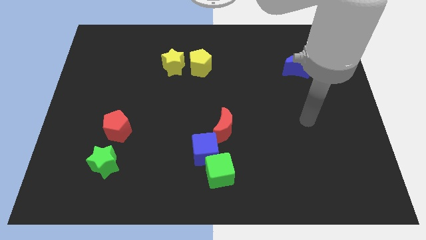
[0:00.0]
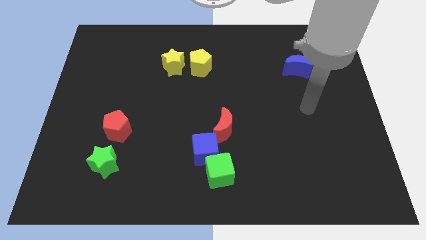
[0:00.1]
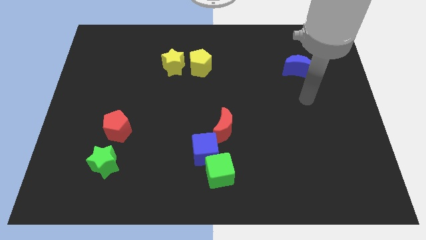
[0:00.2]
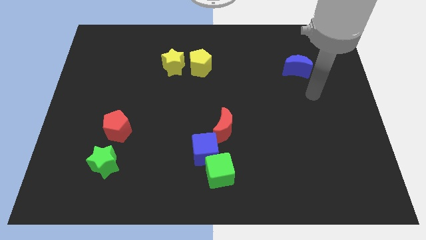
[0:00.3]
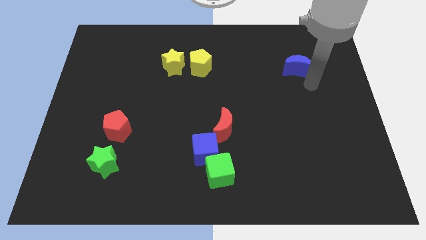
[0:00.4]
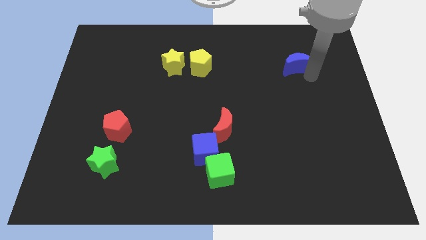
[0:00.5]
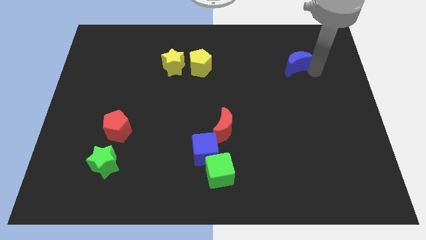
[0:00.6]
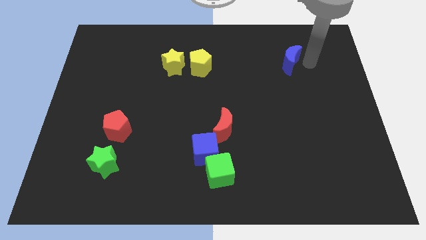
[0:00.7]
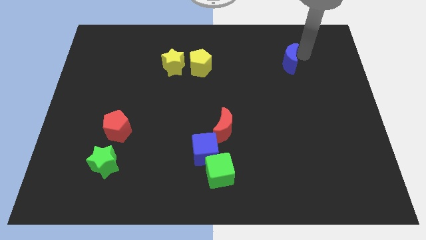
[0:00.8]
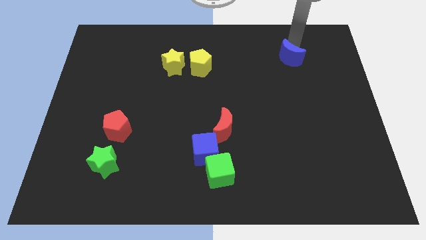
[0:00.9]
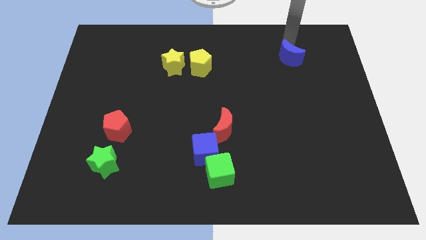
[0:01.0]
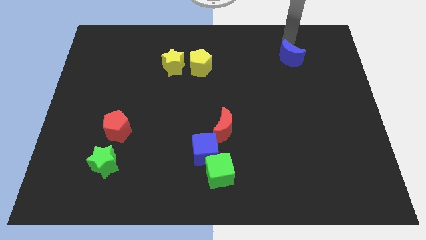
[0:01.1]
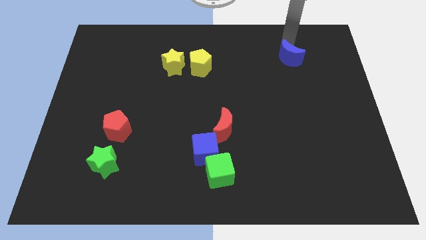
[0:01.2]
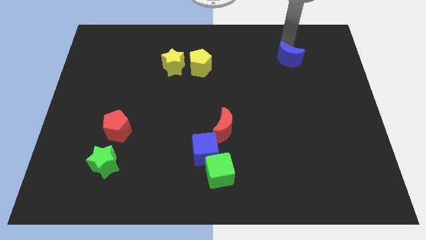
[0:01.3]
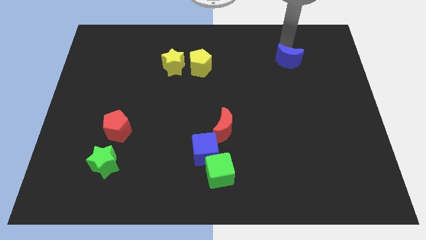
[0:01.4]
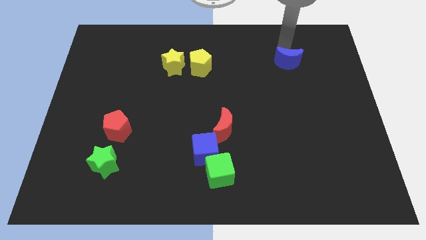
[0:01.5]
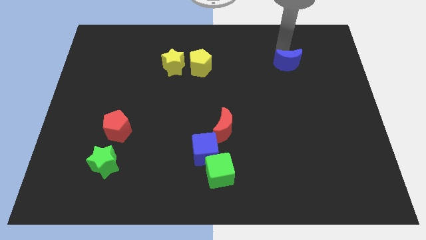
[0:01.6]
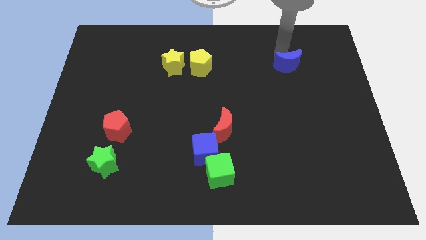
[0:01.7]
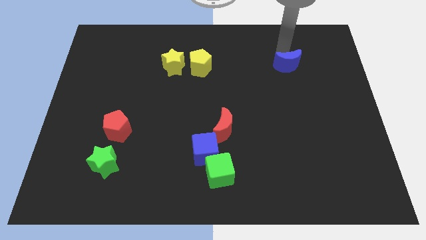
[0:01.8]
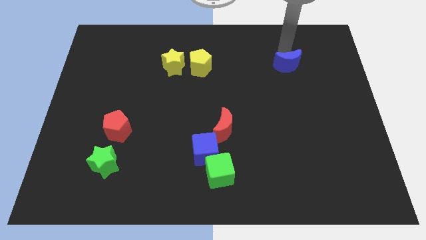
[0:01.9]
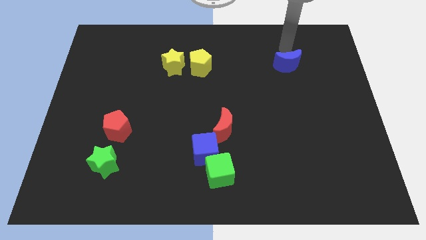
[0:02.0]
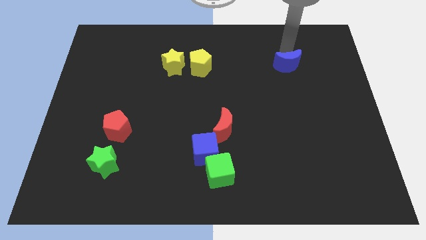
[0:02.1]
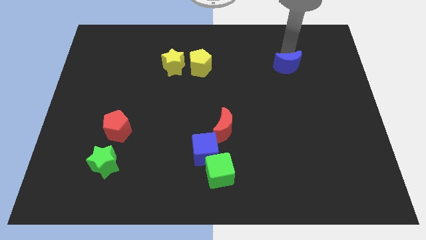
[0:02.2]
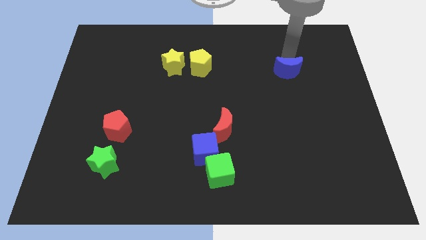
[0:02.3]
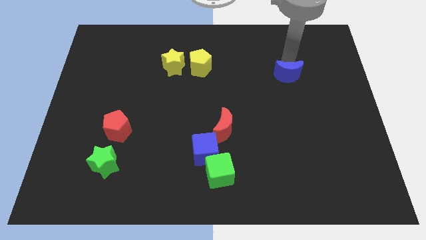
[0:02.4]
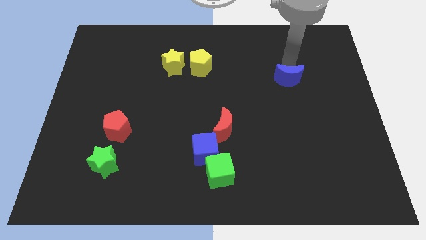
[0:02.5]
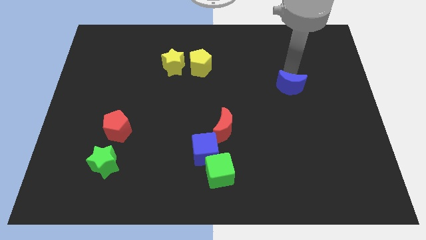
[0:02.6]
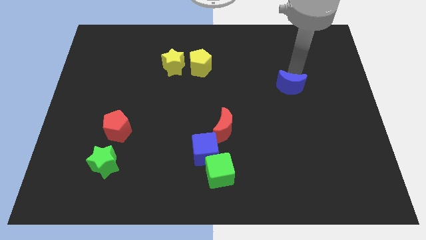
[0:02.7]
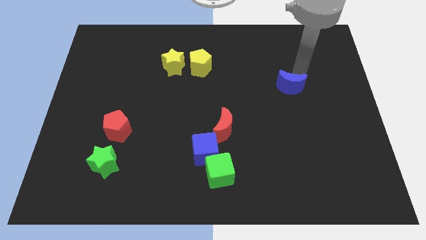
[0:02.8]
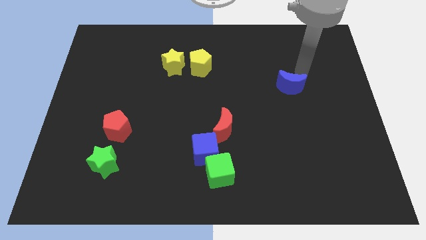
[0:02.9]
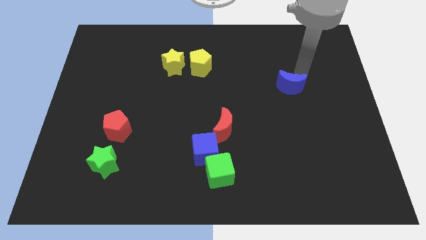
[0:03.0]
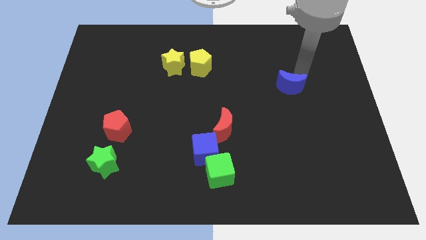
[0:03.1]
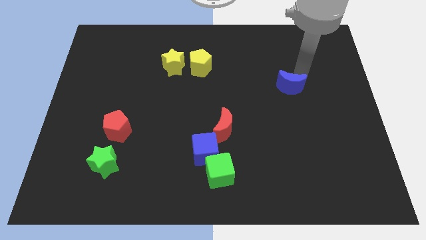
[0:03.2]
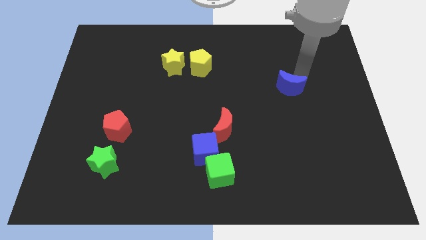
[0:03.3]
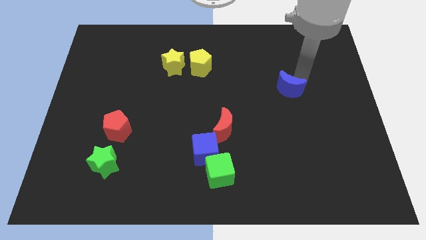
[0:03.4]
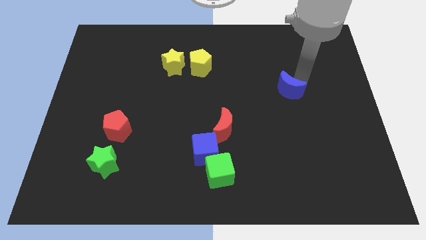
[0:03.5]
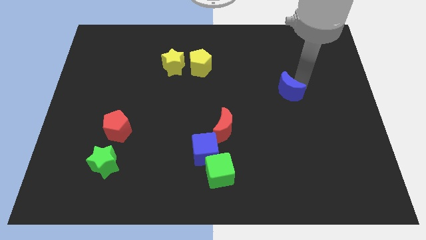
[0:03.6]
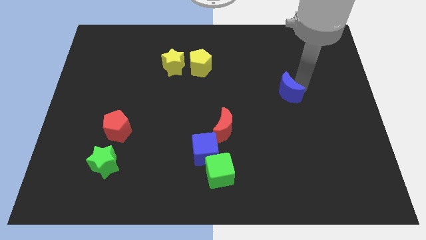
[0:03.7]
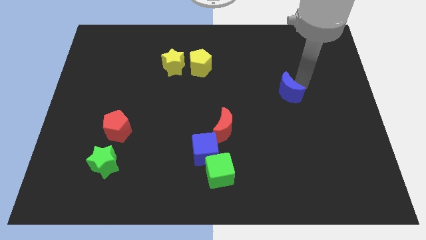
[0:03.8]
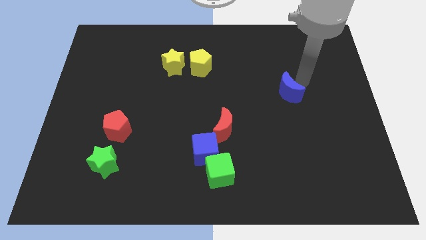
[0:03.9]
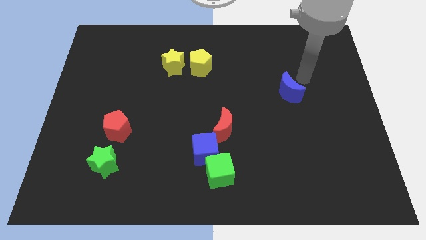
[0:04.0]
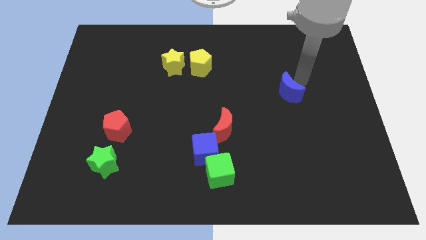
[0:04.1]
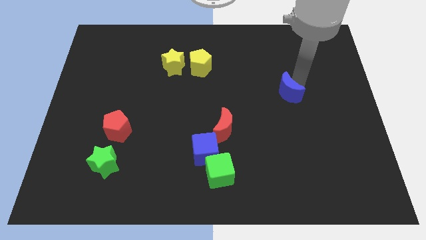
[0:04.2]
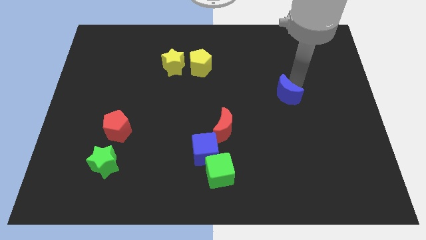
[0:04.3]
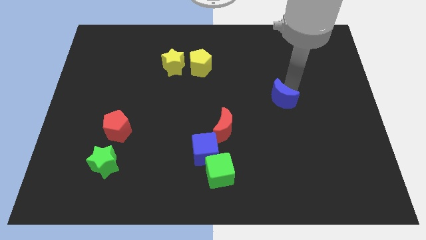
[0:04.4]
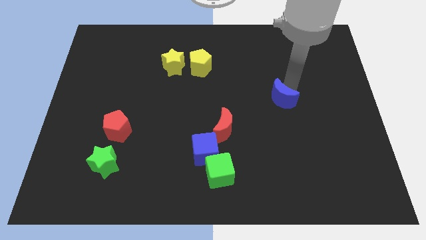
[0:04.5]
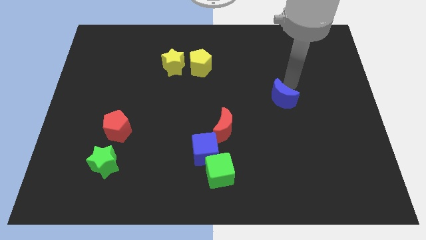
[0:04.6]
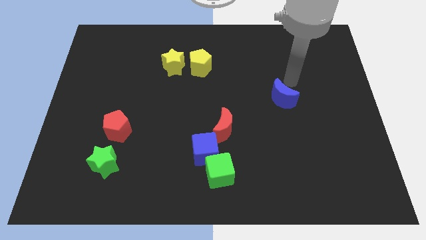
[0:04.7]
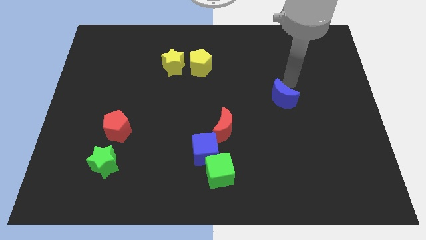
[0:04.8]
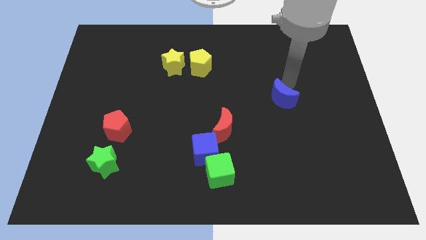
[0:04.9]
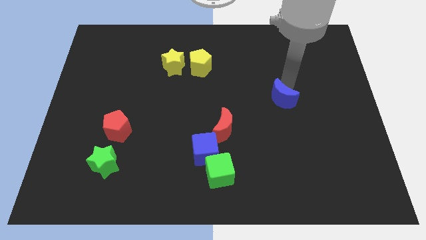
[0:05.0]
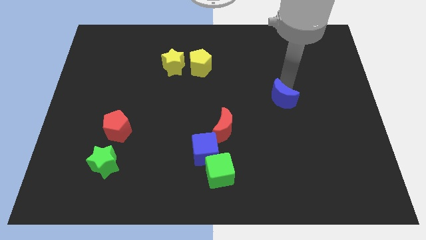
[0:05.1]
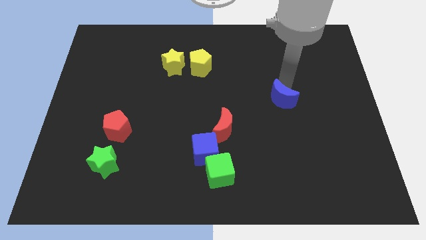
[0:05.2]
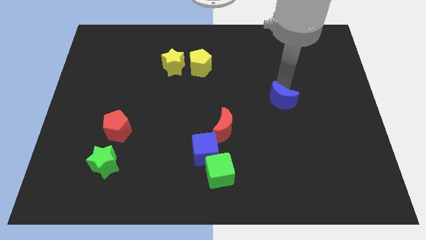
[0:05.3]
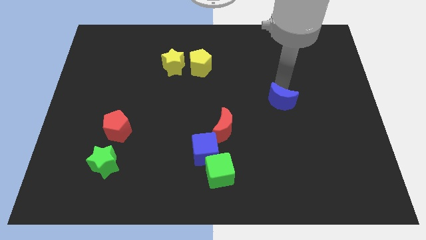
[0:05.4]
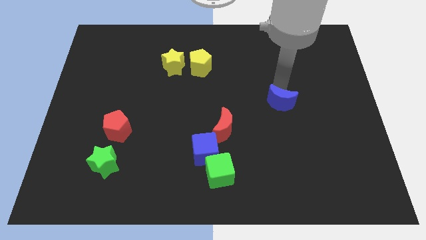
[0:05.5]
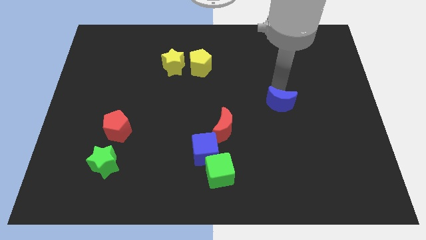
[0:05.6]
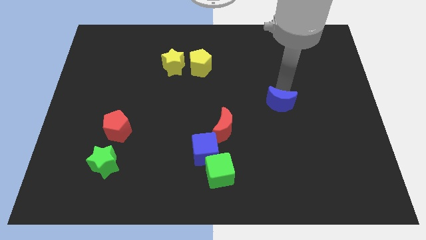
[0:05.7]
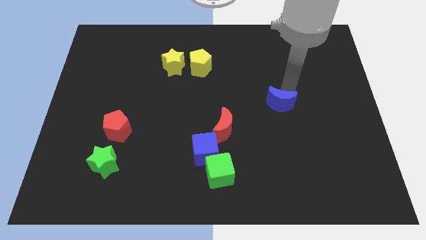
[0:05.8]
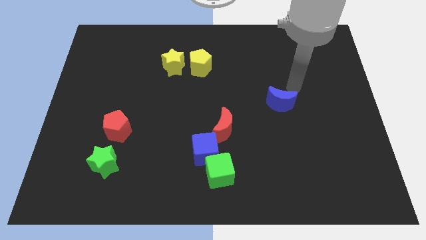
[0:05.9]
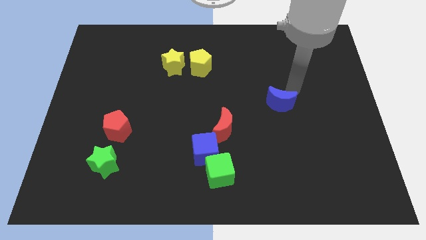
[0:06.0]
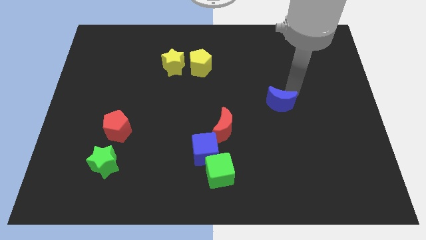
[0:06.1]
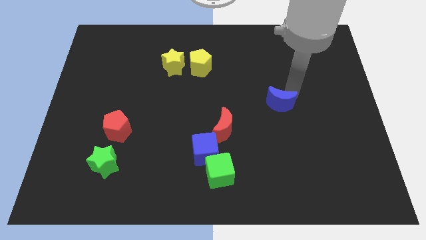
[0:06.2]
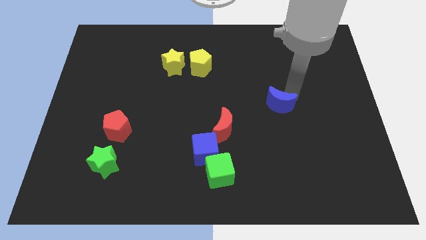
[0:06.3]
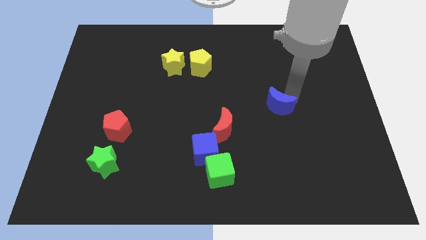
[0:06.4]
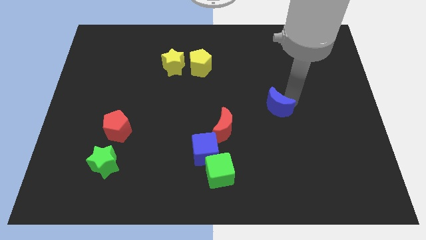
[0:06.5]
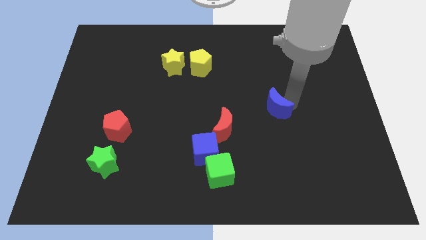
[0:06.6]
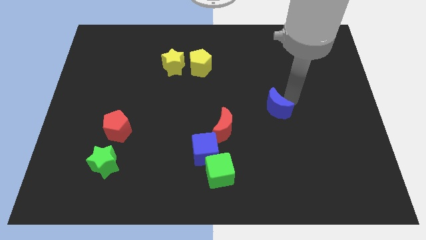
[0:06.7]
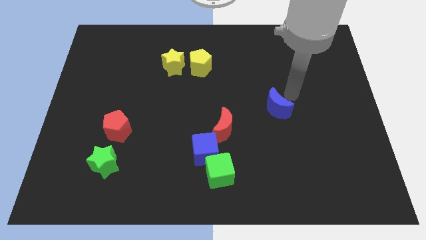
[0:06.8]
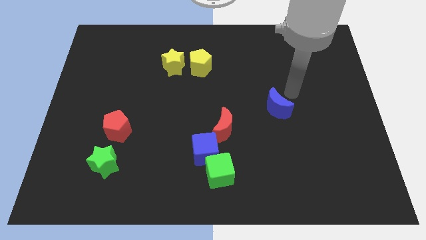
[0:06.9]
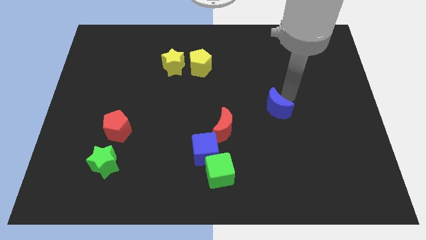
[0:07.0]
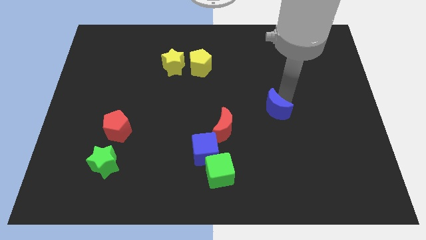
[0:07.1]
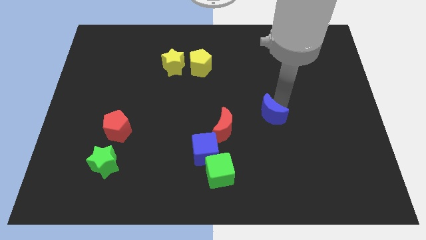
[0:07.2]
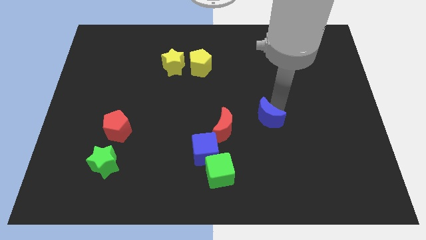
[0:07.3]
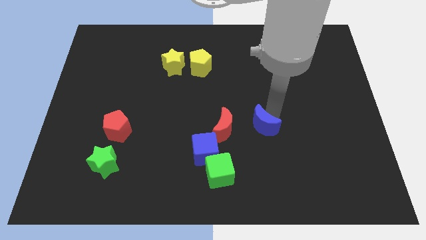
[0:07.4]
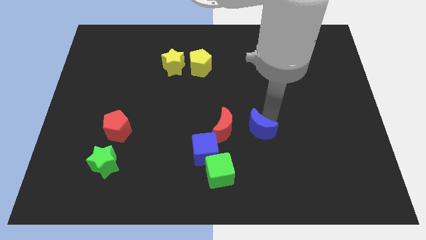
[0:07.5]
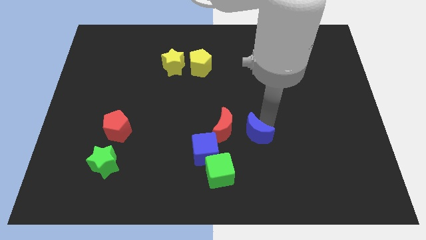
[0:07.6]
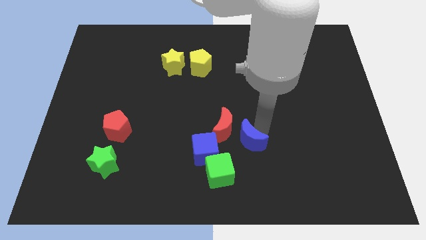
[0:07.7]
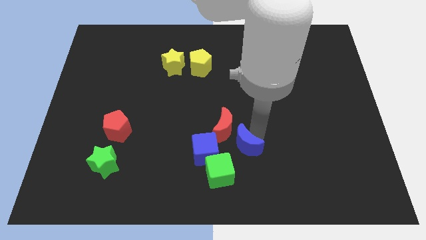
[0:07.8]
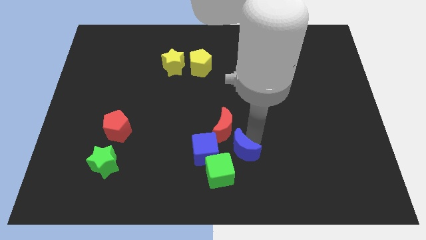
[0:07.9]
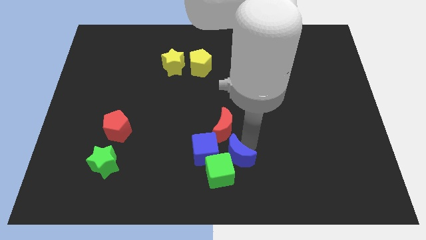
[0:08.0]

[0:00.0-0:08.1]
slide the blue moon next to the green cube
